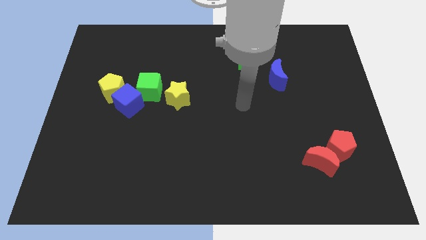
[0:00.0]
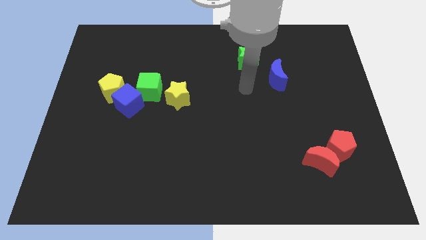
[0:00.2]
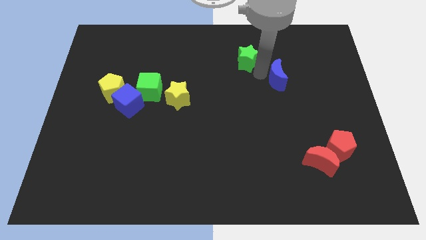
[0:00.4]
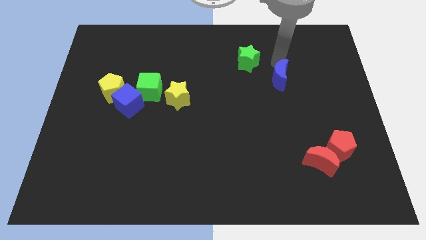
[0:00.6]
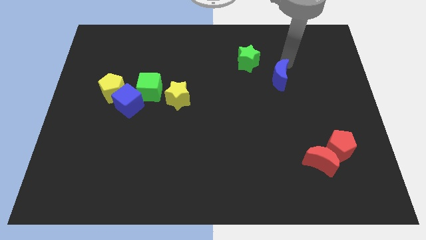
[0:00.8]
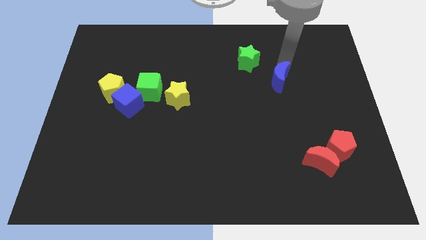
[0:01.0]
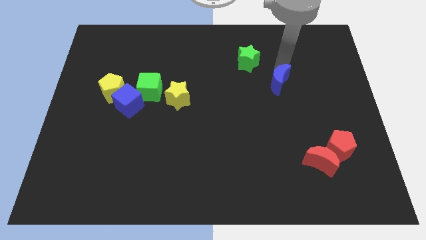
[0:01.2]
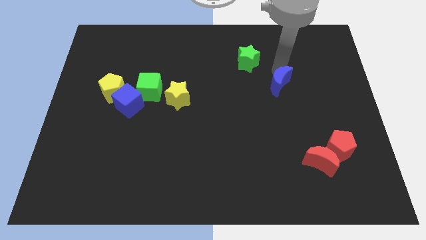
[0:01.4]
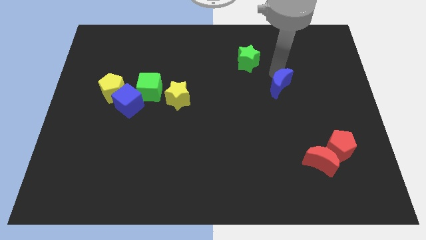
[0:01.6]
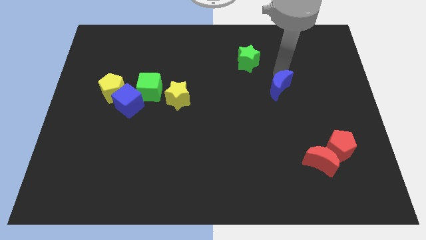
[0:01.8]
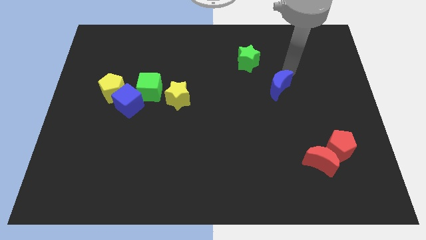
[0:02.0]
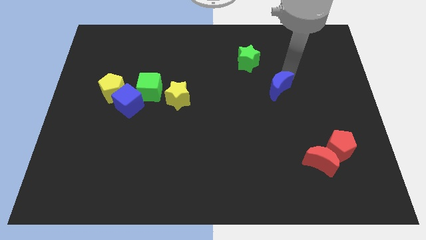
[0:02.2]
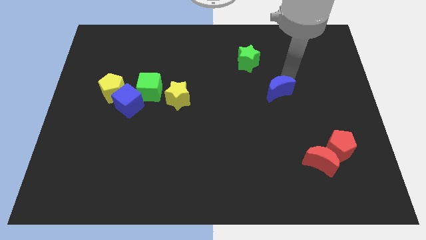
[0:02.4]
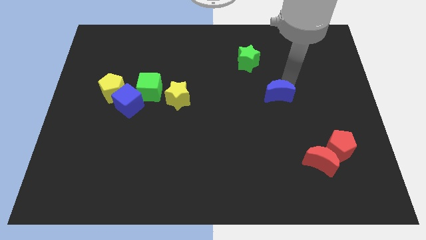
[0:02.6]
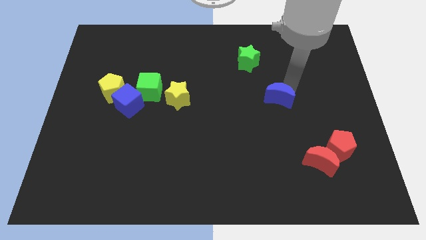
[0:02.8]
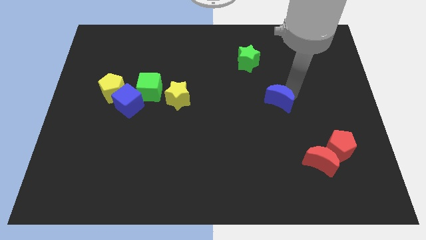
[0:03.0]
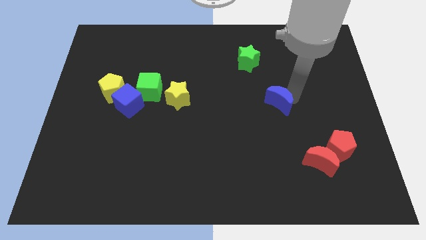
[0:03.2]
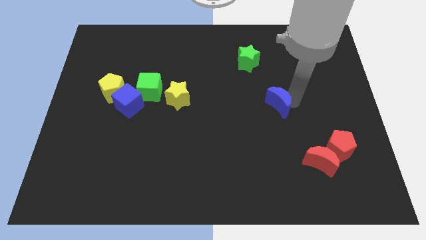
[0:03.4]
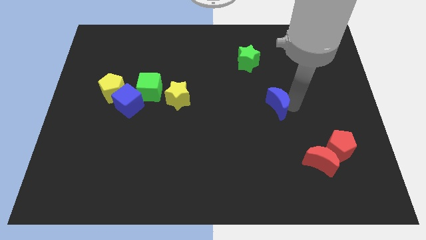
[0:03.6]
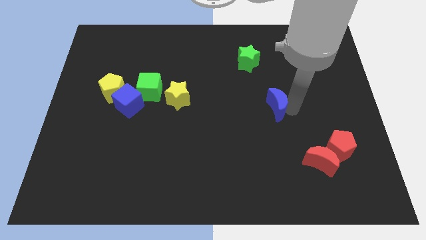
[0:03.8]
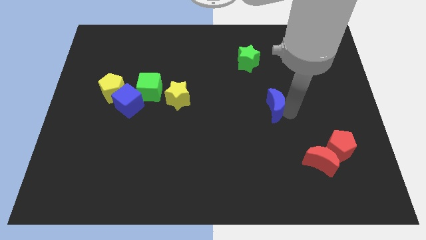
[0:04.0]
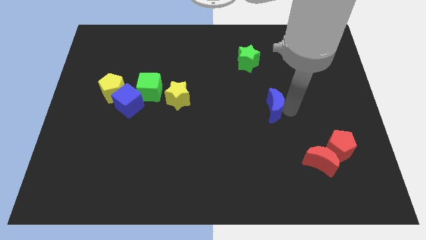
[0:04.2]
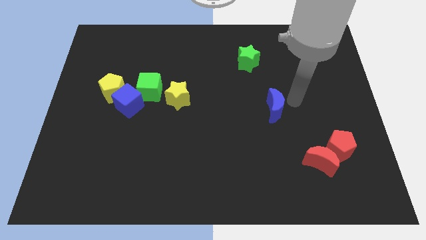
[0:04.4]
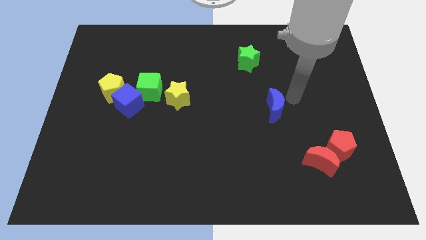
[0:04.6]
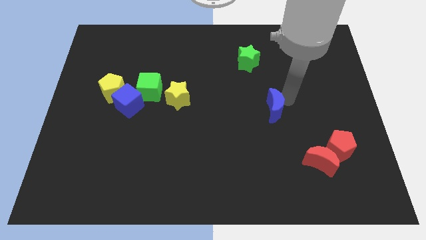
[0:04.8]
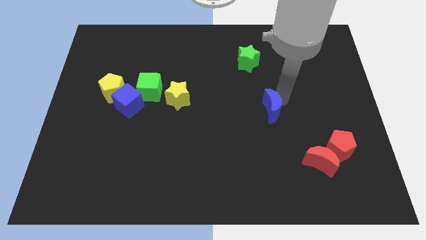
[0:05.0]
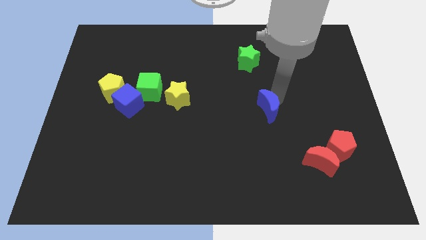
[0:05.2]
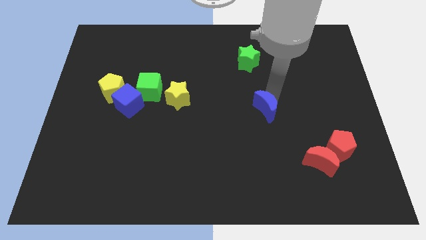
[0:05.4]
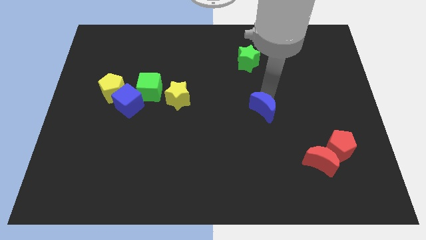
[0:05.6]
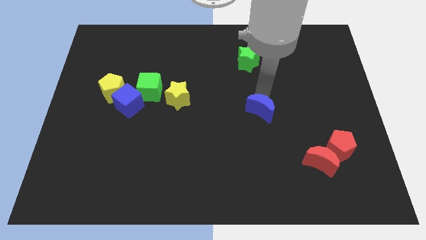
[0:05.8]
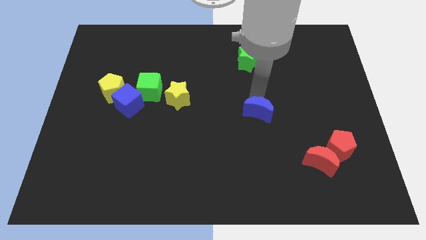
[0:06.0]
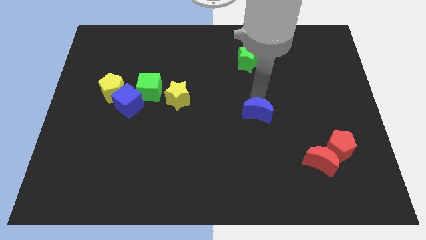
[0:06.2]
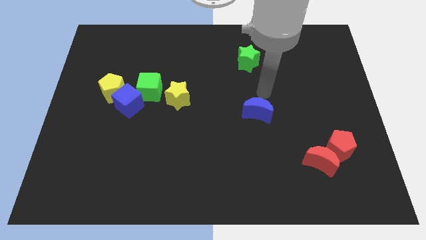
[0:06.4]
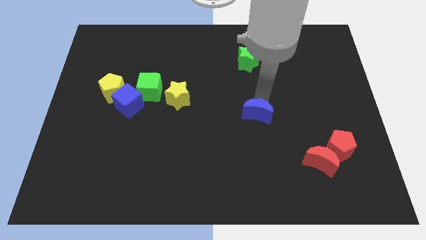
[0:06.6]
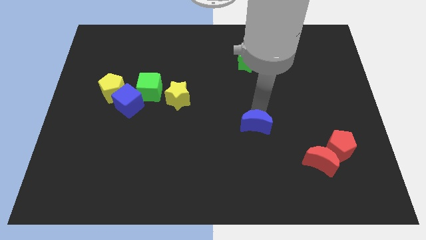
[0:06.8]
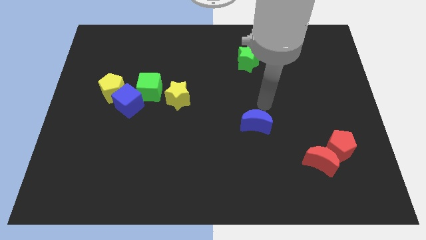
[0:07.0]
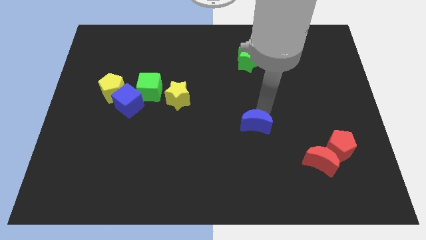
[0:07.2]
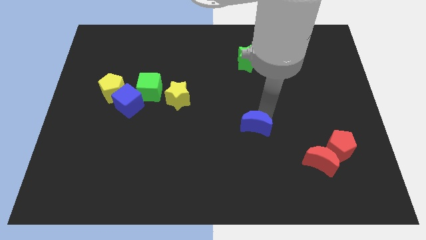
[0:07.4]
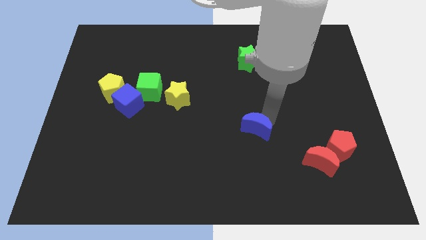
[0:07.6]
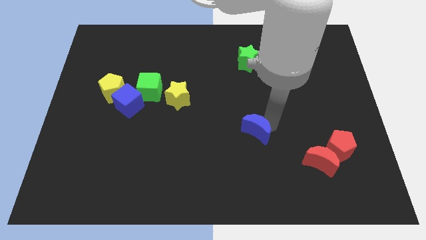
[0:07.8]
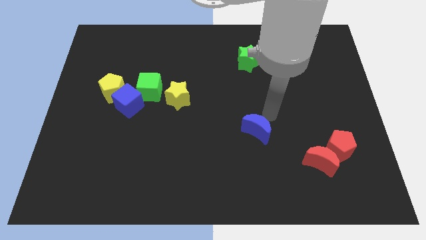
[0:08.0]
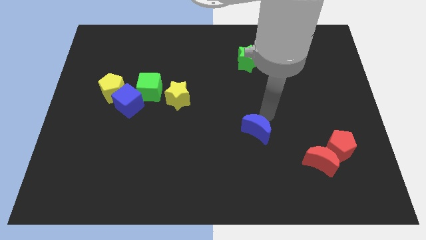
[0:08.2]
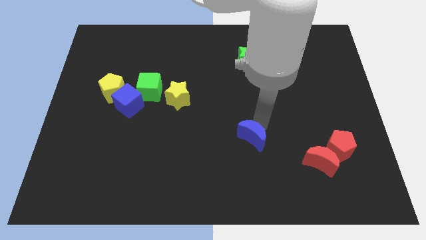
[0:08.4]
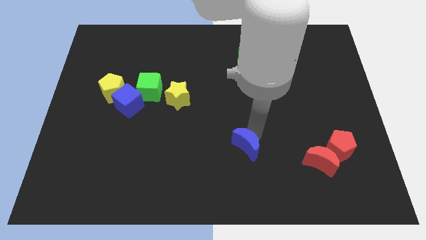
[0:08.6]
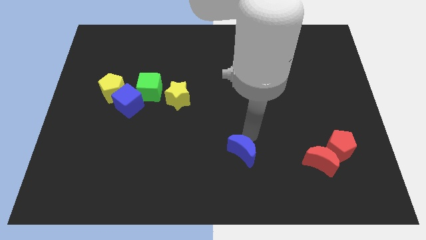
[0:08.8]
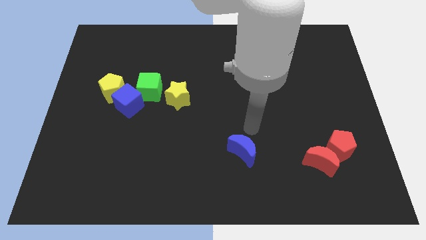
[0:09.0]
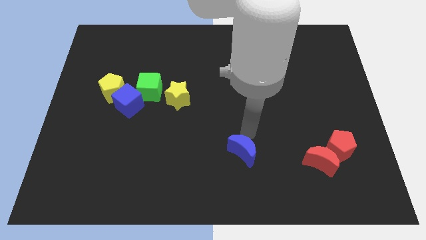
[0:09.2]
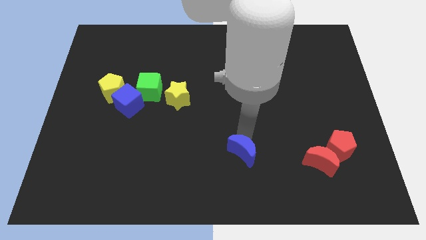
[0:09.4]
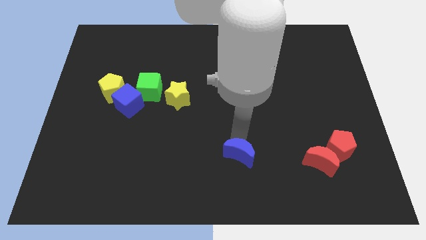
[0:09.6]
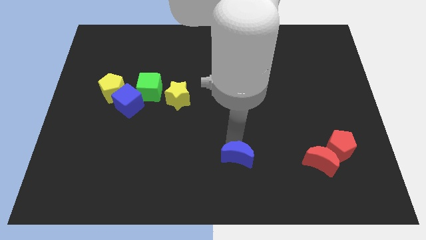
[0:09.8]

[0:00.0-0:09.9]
push the blue moon to the bottom

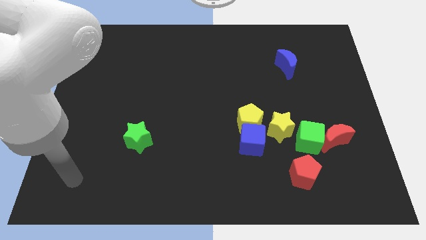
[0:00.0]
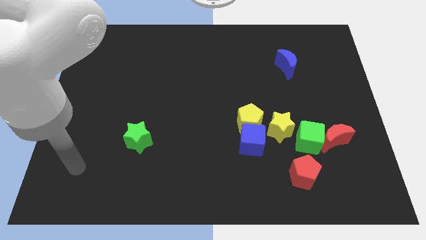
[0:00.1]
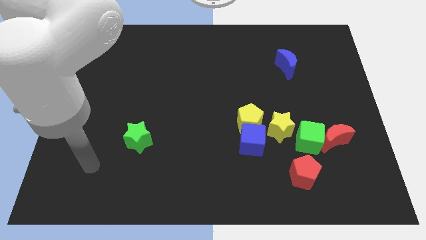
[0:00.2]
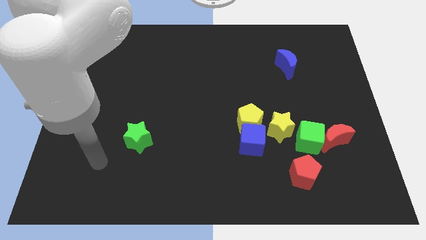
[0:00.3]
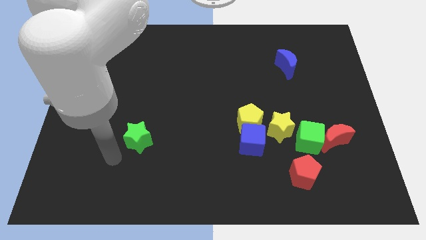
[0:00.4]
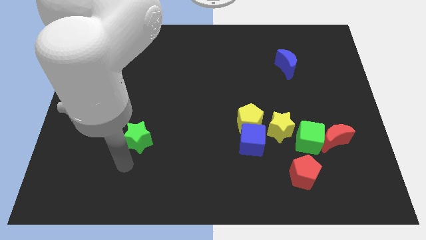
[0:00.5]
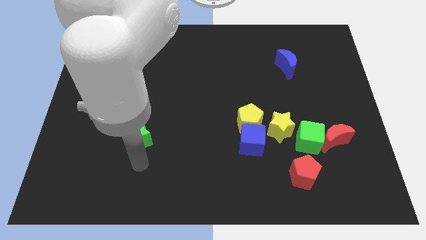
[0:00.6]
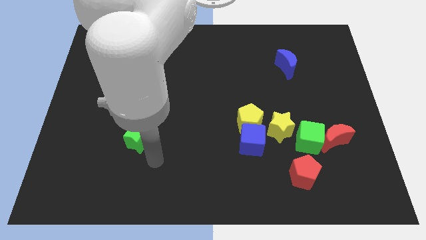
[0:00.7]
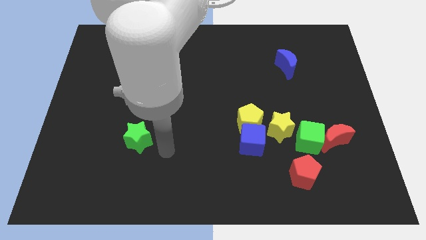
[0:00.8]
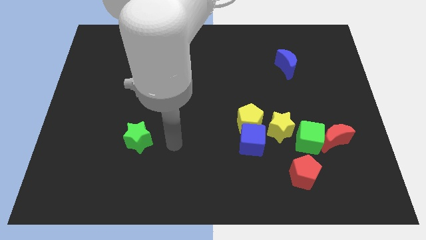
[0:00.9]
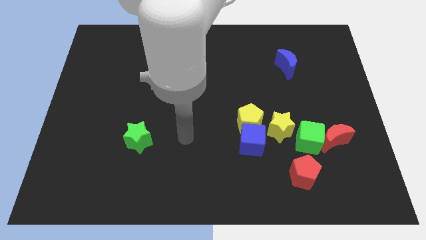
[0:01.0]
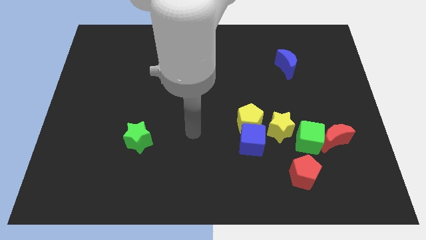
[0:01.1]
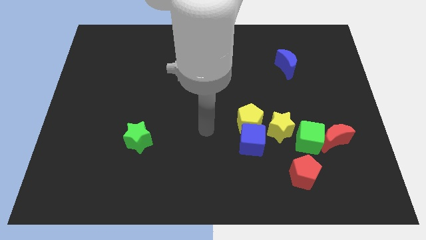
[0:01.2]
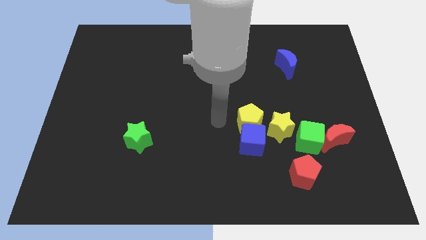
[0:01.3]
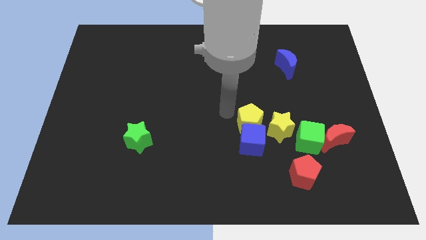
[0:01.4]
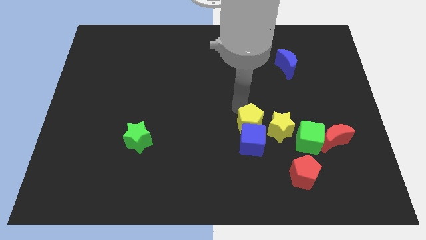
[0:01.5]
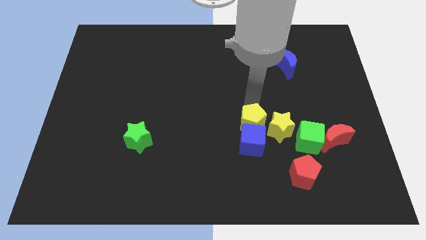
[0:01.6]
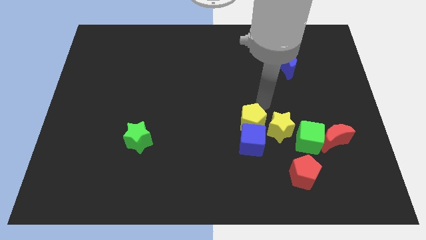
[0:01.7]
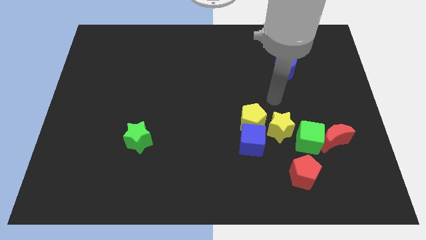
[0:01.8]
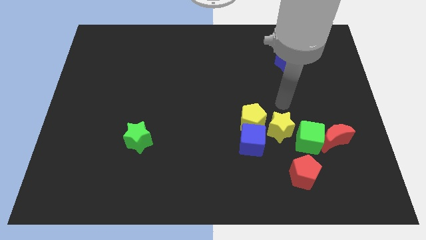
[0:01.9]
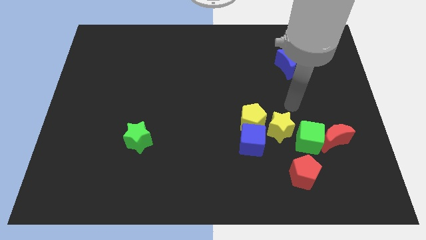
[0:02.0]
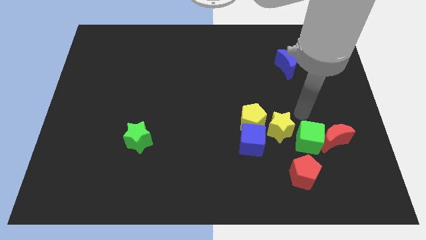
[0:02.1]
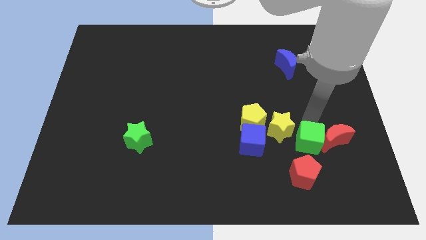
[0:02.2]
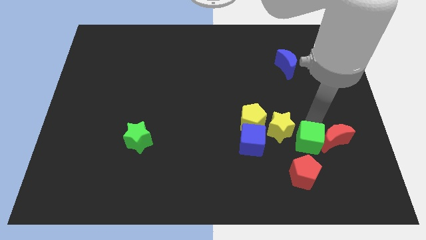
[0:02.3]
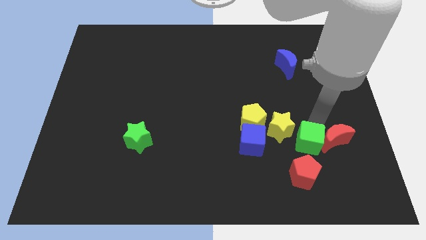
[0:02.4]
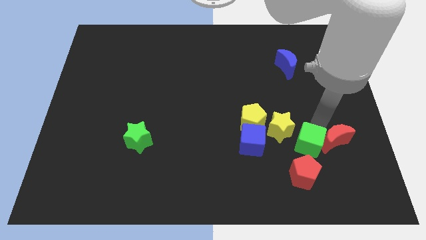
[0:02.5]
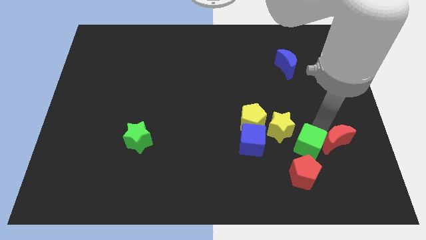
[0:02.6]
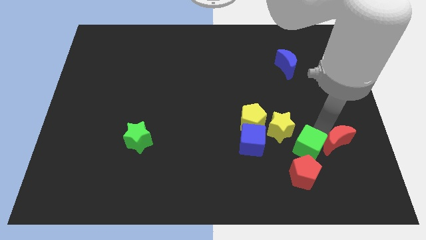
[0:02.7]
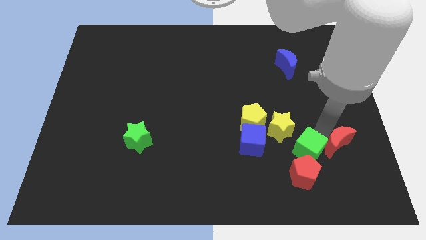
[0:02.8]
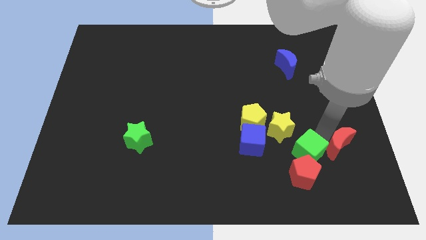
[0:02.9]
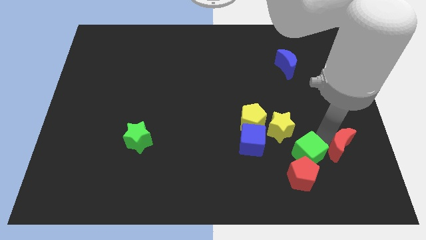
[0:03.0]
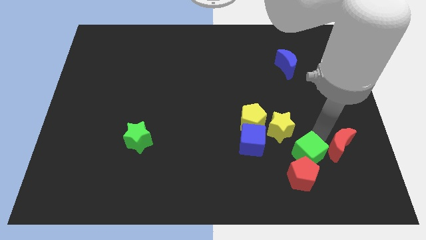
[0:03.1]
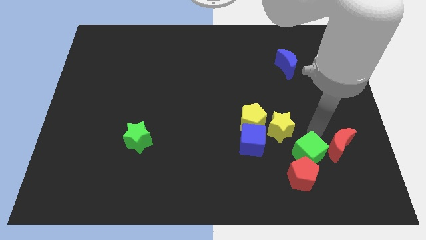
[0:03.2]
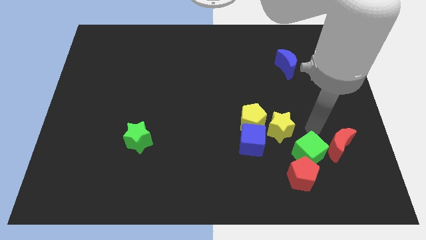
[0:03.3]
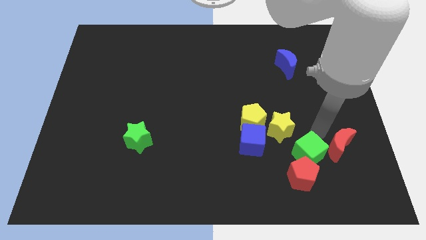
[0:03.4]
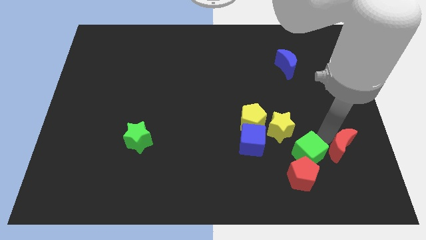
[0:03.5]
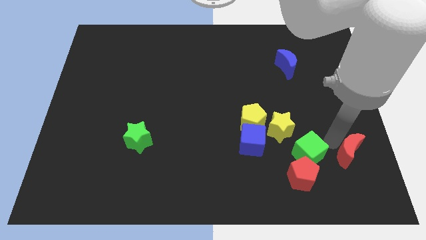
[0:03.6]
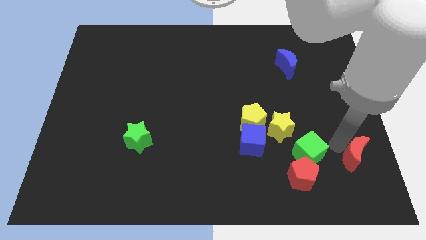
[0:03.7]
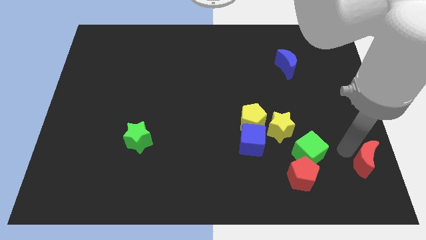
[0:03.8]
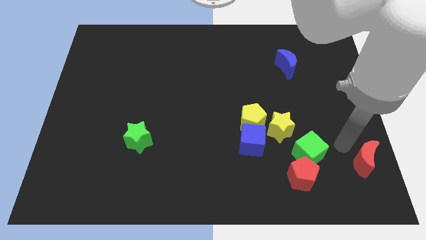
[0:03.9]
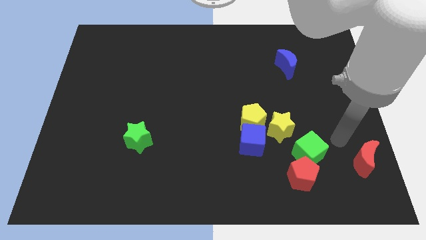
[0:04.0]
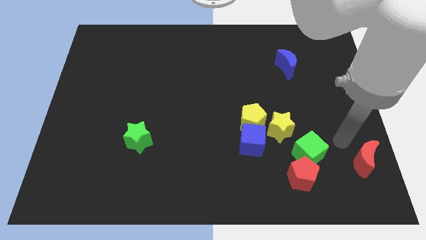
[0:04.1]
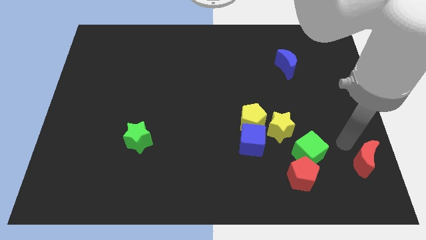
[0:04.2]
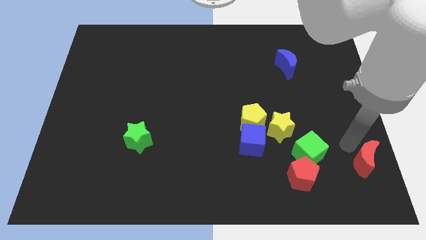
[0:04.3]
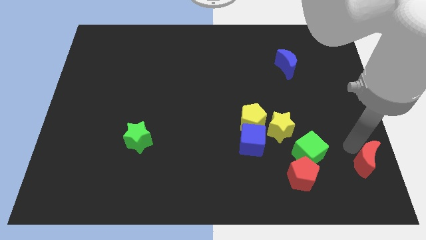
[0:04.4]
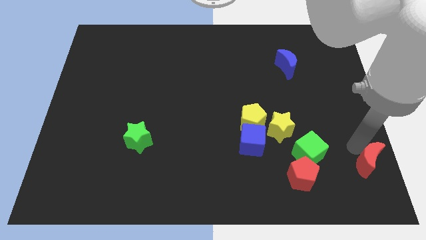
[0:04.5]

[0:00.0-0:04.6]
put the red moon to the bottom right of the board
